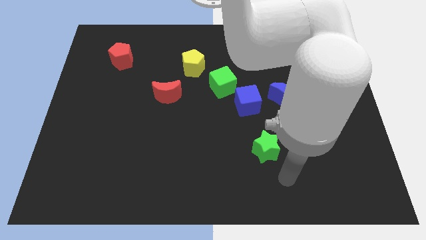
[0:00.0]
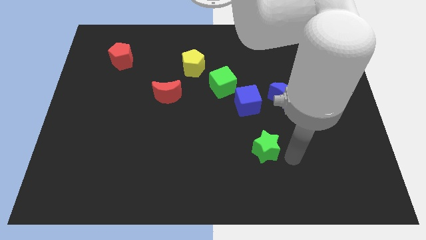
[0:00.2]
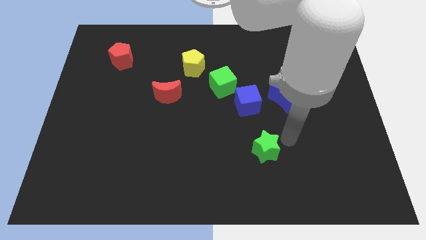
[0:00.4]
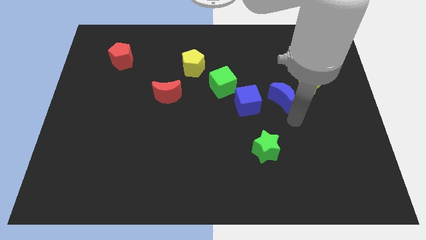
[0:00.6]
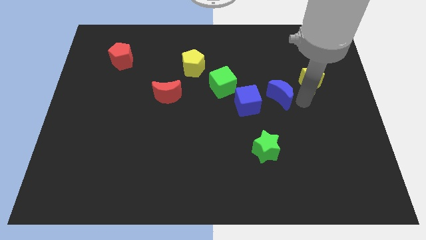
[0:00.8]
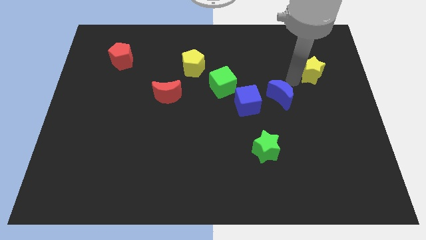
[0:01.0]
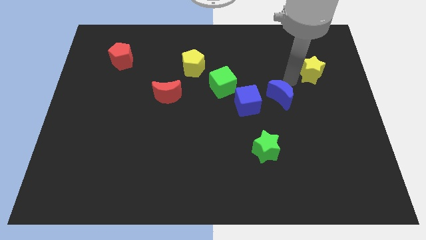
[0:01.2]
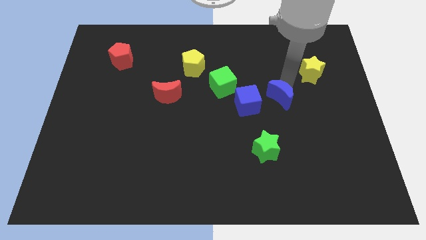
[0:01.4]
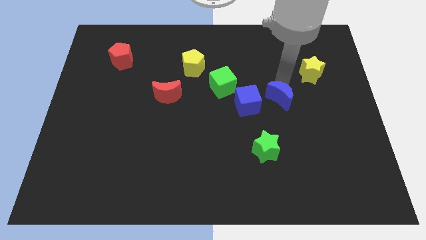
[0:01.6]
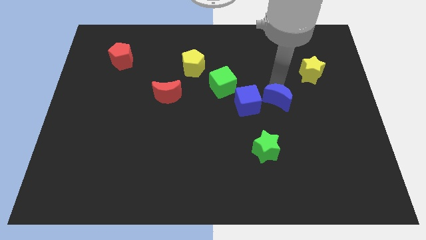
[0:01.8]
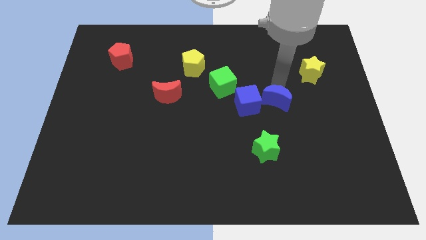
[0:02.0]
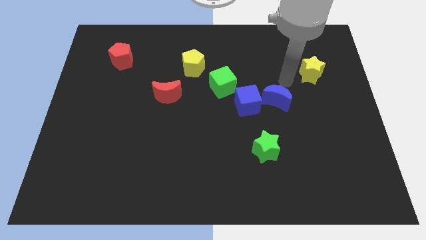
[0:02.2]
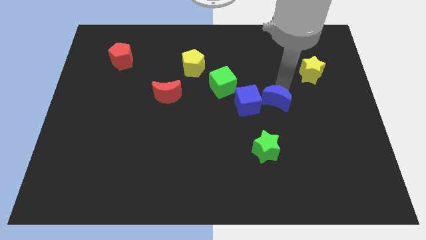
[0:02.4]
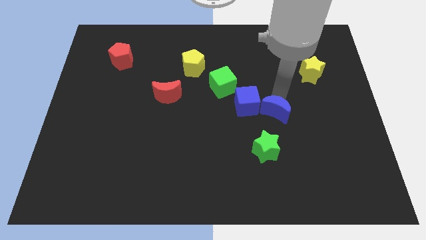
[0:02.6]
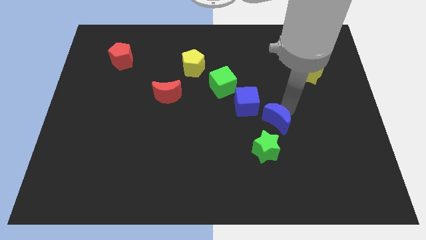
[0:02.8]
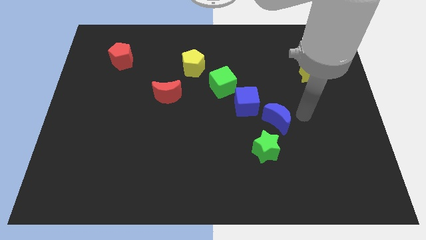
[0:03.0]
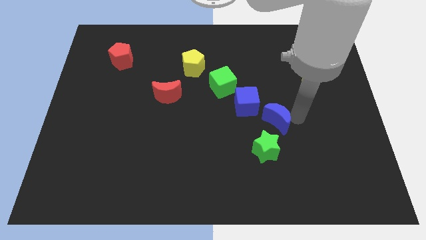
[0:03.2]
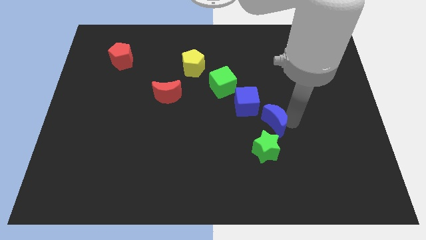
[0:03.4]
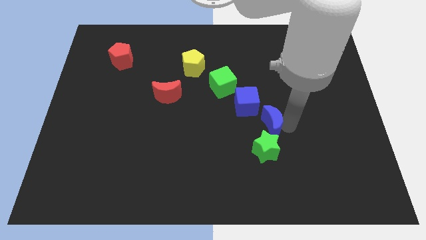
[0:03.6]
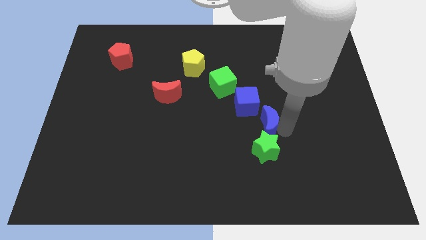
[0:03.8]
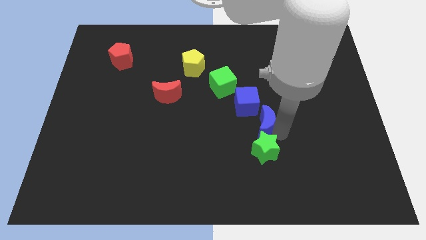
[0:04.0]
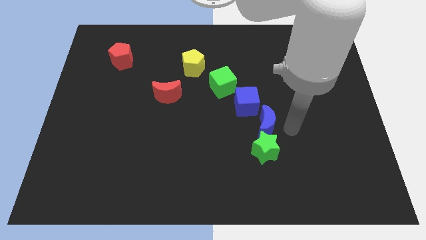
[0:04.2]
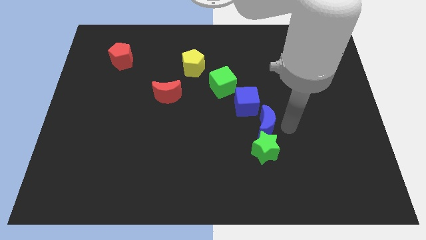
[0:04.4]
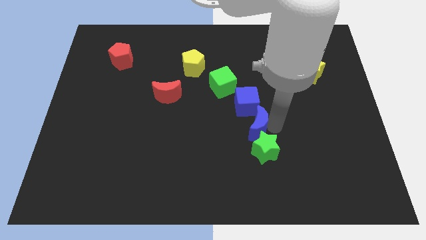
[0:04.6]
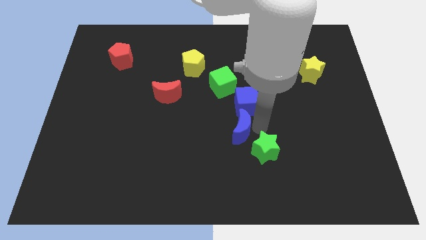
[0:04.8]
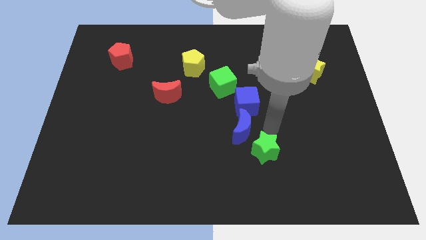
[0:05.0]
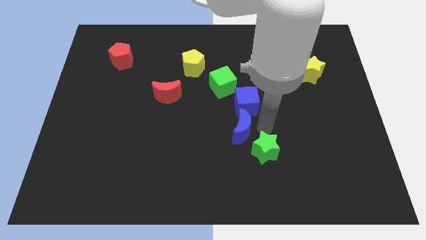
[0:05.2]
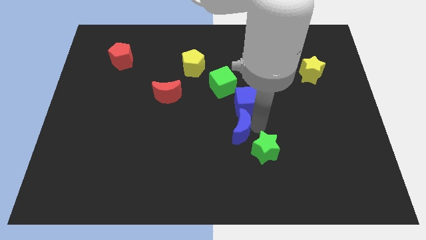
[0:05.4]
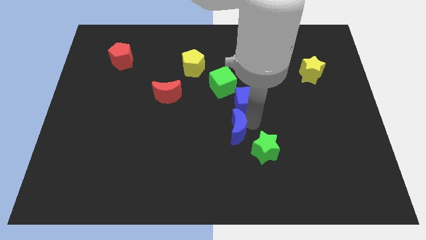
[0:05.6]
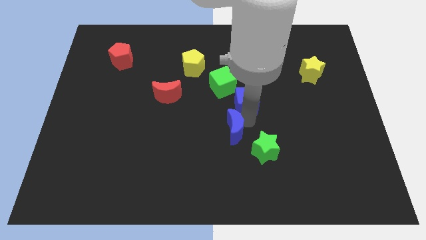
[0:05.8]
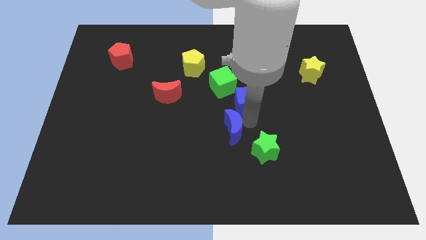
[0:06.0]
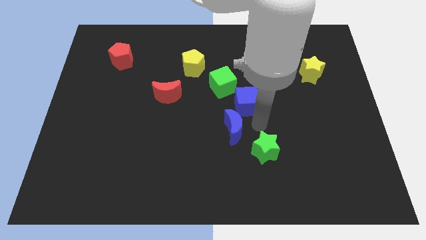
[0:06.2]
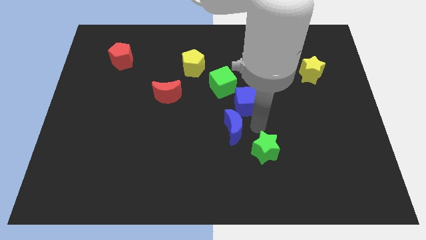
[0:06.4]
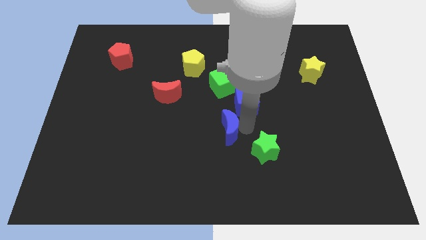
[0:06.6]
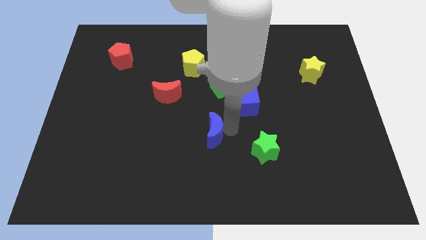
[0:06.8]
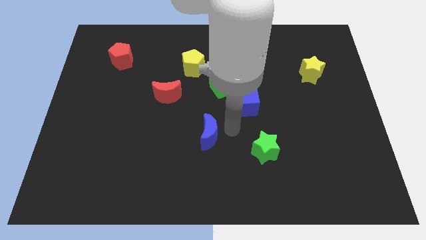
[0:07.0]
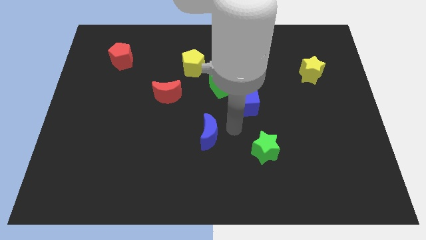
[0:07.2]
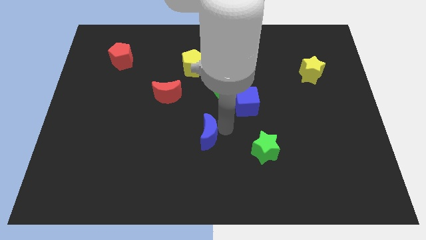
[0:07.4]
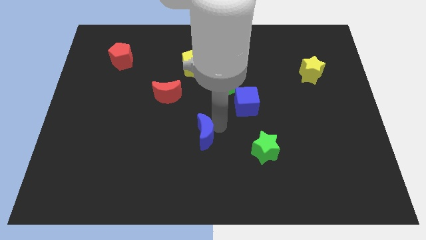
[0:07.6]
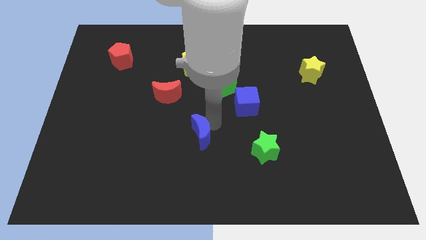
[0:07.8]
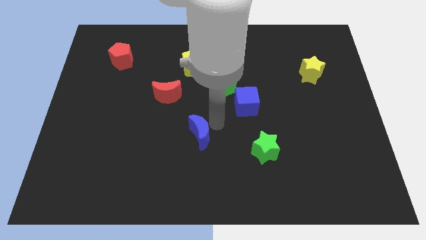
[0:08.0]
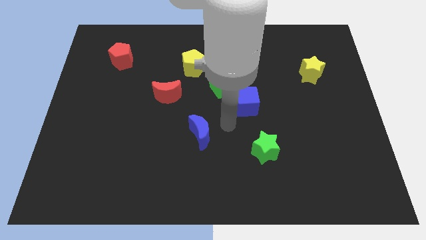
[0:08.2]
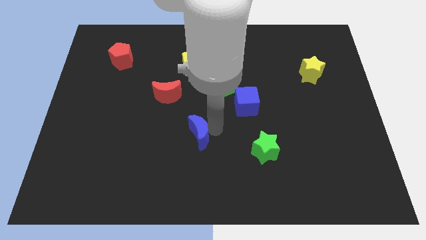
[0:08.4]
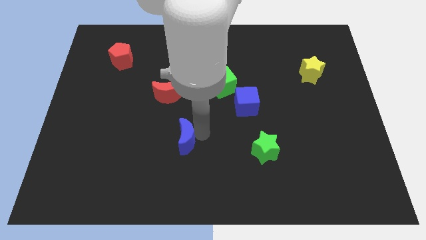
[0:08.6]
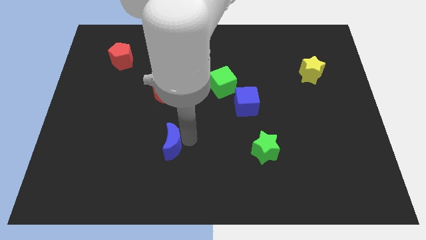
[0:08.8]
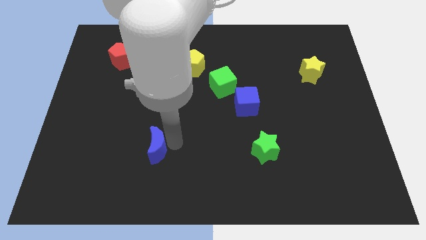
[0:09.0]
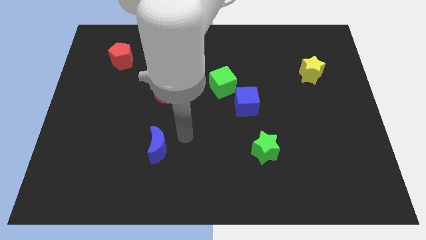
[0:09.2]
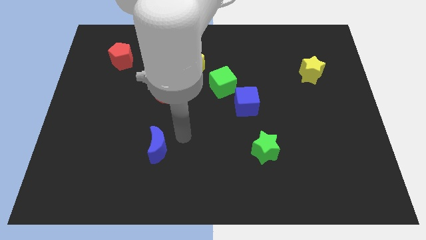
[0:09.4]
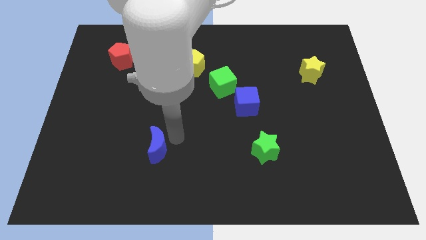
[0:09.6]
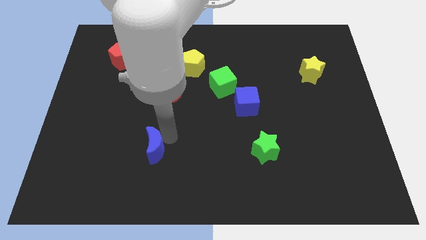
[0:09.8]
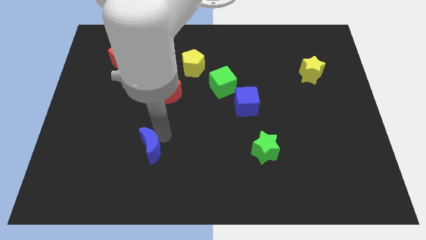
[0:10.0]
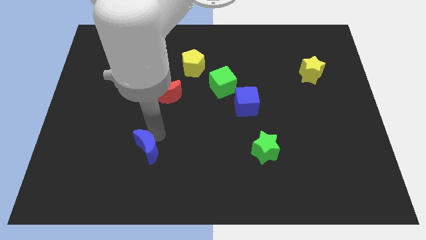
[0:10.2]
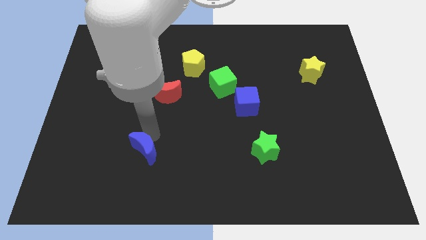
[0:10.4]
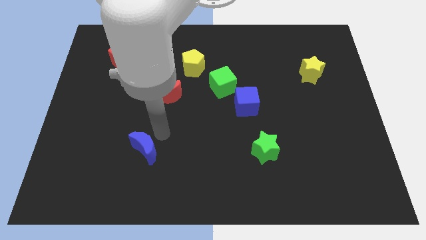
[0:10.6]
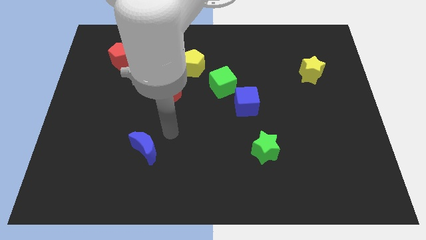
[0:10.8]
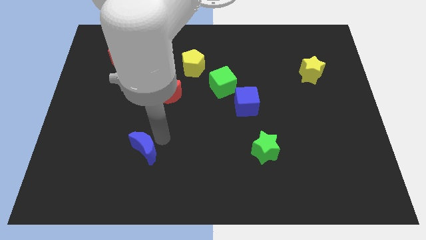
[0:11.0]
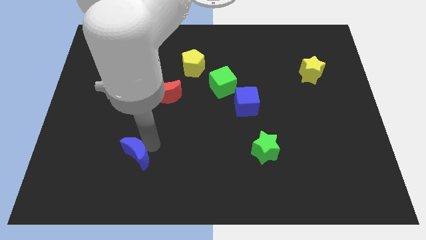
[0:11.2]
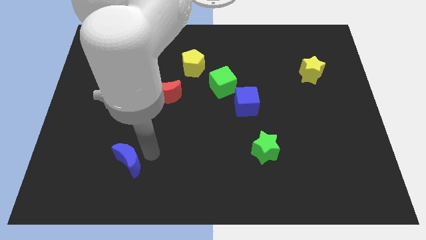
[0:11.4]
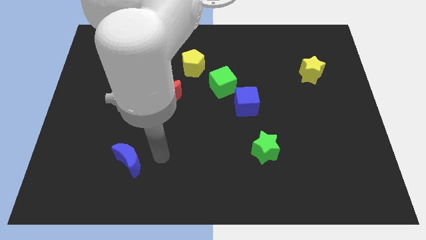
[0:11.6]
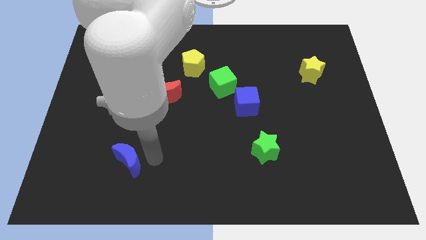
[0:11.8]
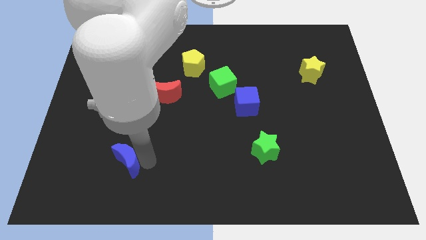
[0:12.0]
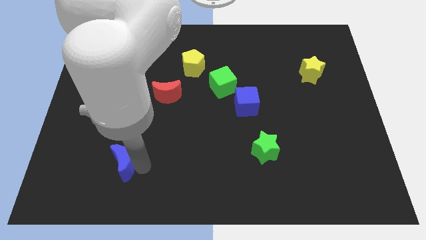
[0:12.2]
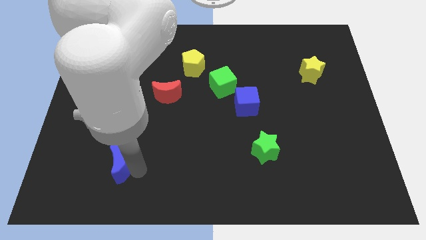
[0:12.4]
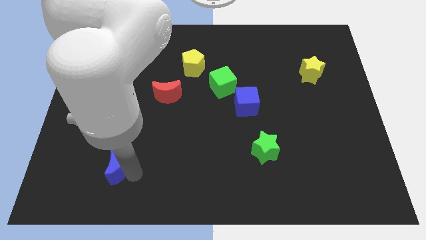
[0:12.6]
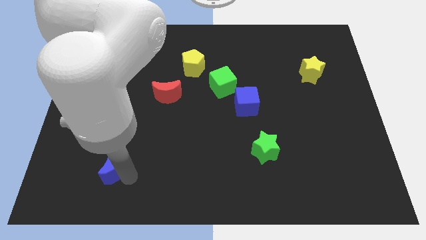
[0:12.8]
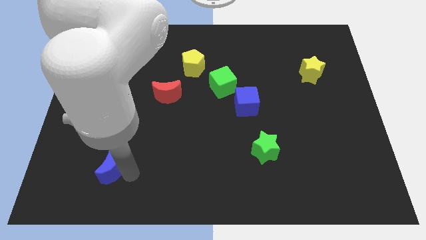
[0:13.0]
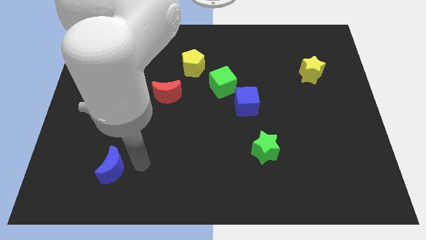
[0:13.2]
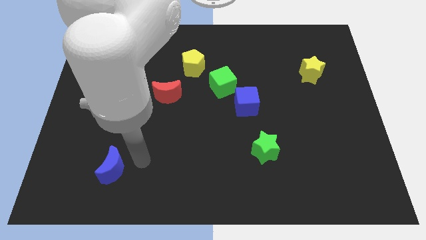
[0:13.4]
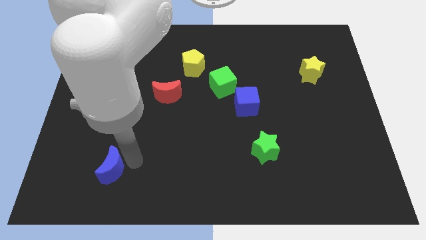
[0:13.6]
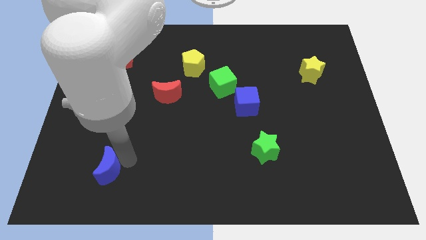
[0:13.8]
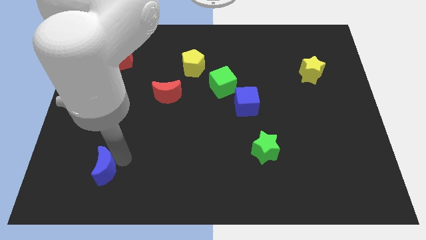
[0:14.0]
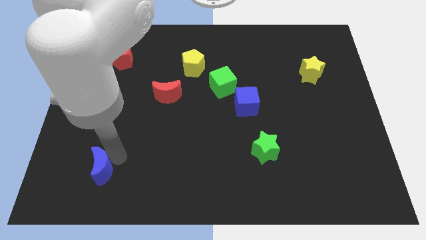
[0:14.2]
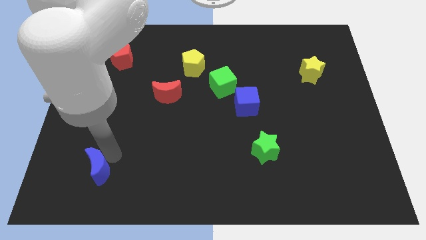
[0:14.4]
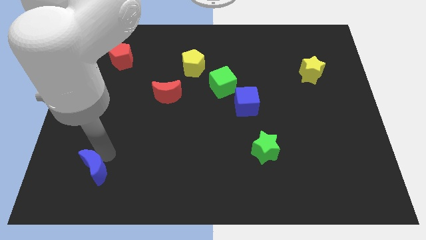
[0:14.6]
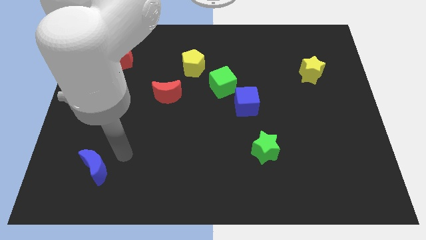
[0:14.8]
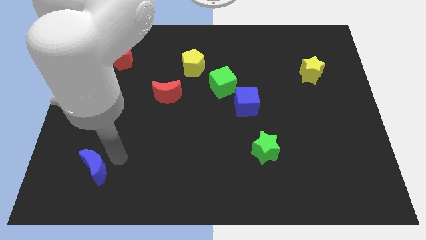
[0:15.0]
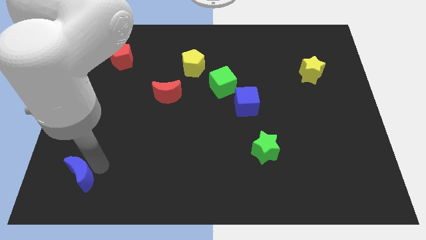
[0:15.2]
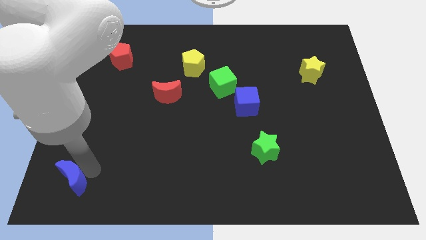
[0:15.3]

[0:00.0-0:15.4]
push the blue moon to the lower left corner
